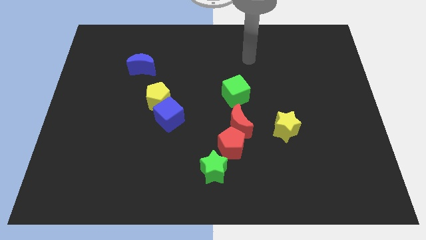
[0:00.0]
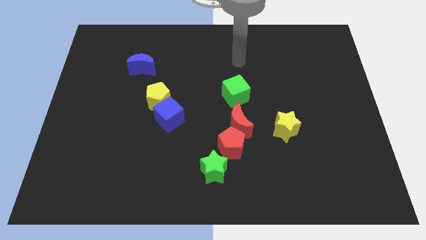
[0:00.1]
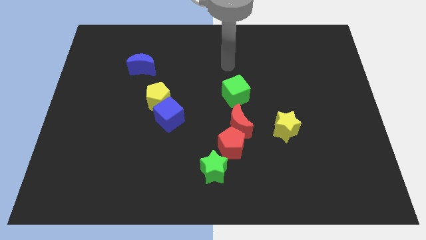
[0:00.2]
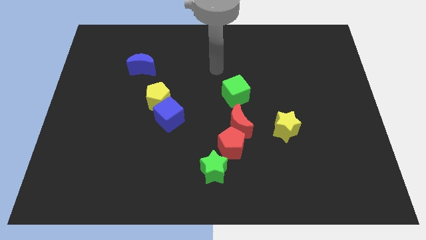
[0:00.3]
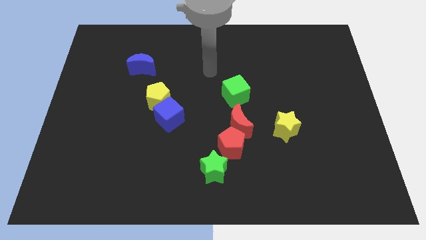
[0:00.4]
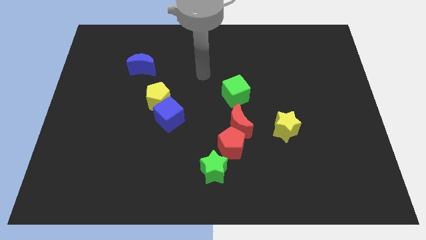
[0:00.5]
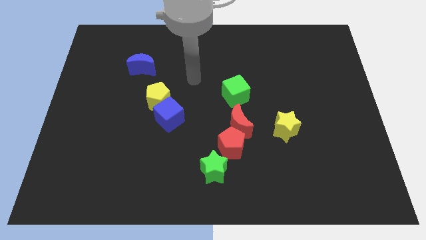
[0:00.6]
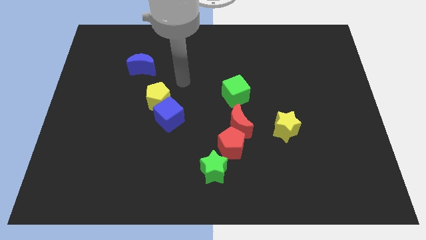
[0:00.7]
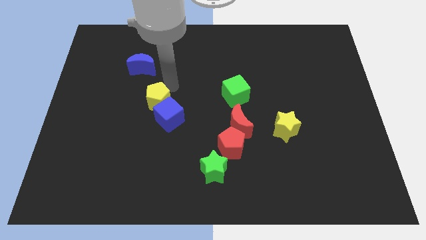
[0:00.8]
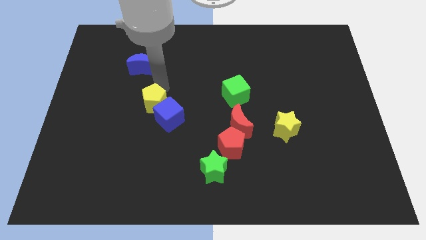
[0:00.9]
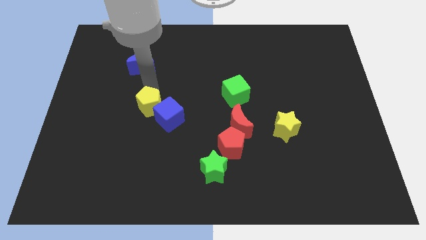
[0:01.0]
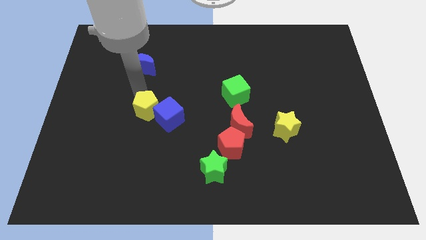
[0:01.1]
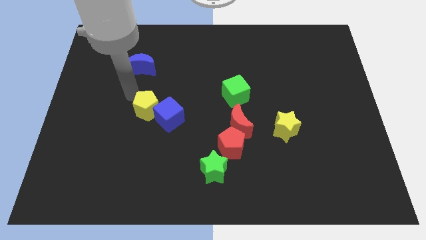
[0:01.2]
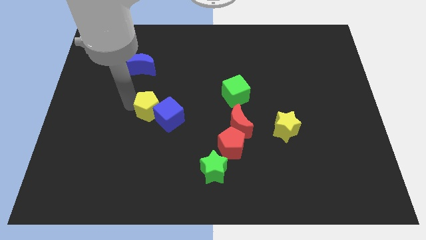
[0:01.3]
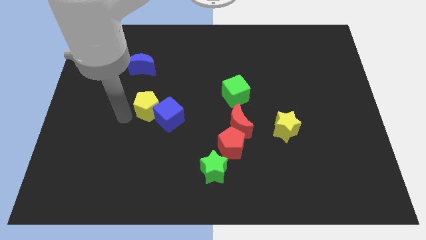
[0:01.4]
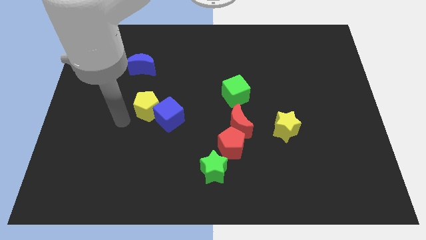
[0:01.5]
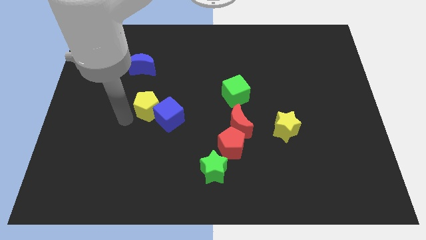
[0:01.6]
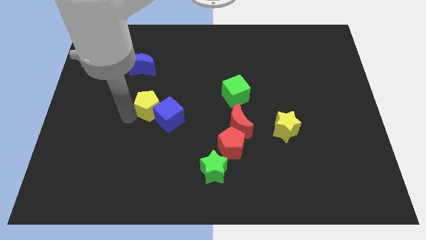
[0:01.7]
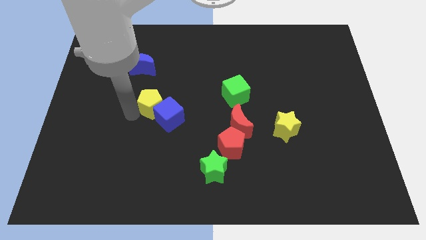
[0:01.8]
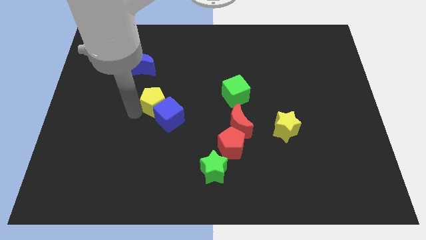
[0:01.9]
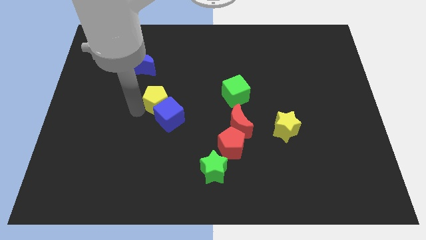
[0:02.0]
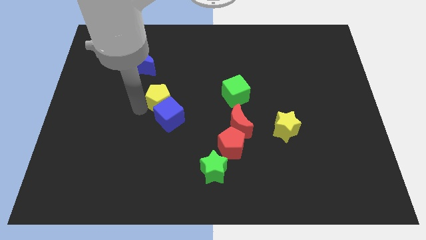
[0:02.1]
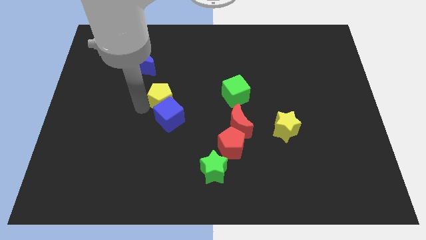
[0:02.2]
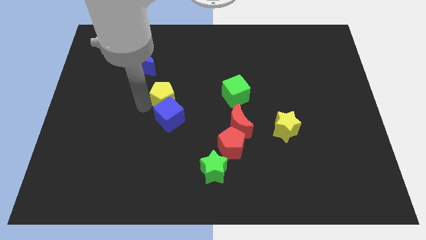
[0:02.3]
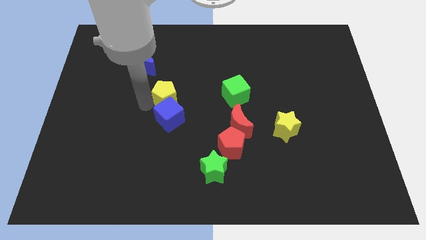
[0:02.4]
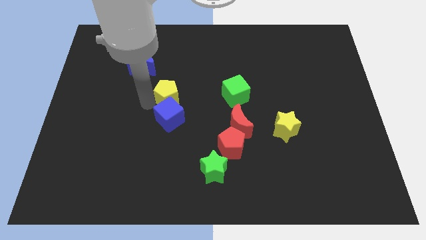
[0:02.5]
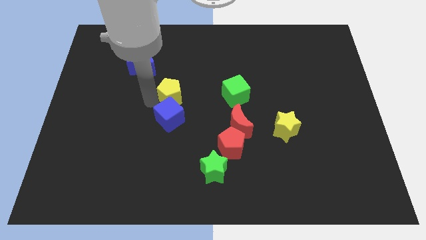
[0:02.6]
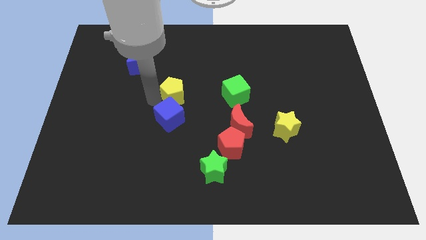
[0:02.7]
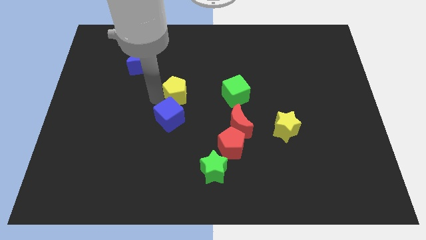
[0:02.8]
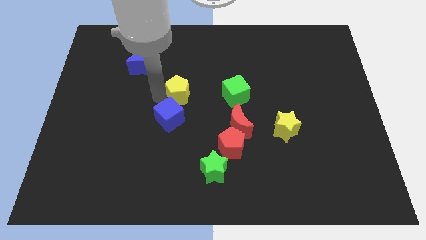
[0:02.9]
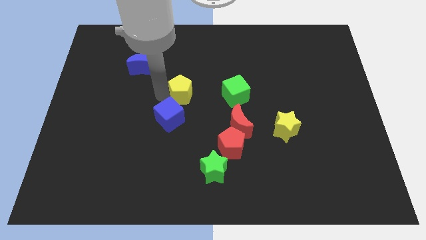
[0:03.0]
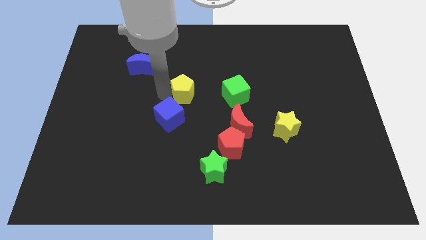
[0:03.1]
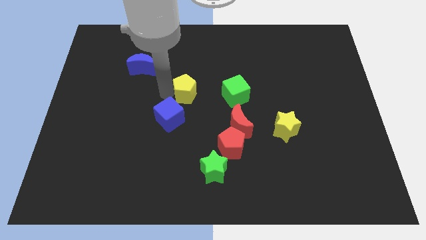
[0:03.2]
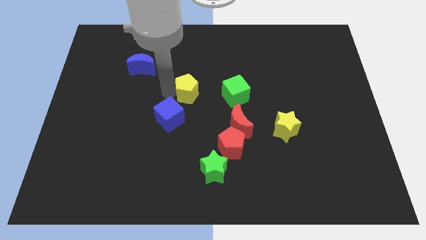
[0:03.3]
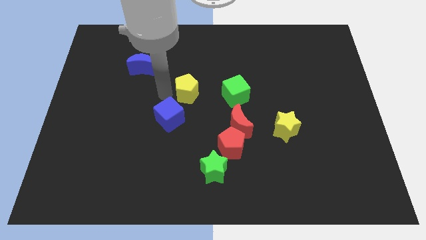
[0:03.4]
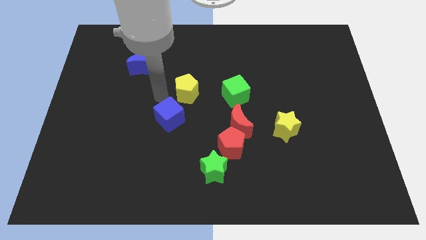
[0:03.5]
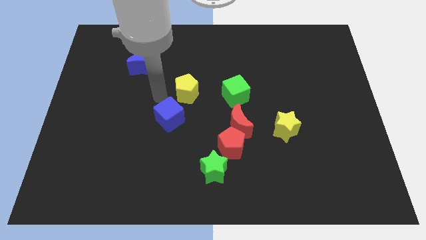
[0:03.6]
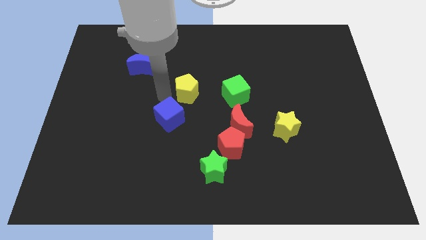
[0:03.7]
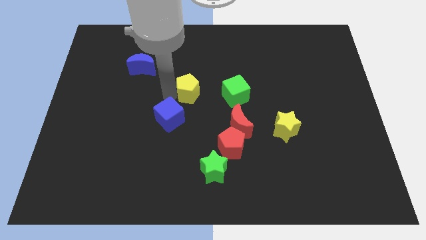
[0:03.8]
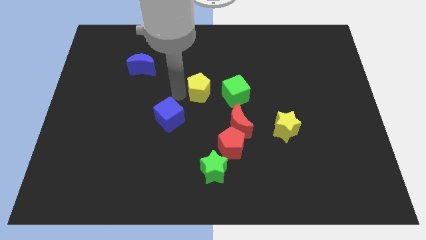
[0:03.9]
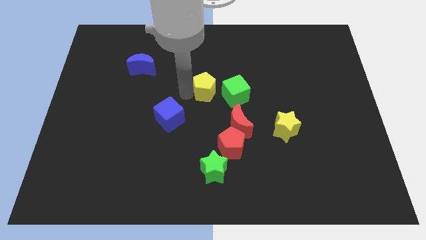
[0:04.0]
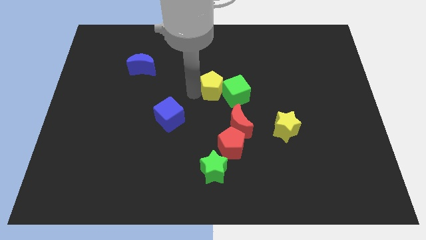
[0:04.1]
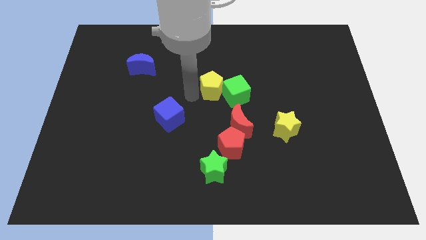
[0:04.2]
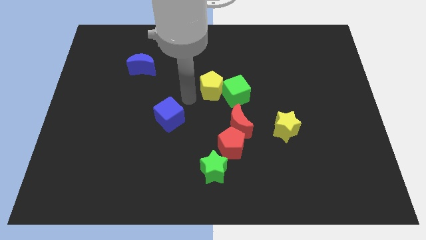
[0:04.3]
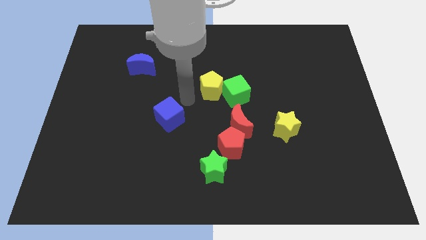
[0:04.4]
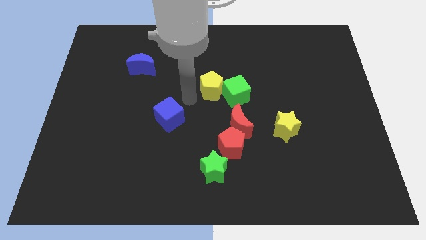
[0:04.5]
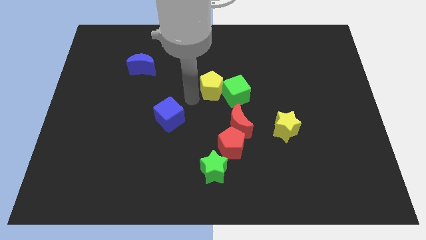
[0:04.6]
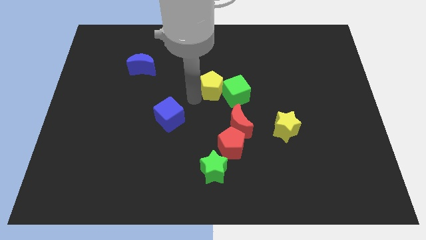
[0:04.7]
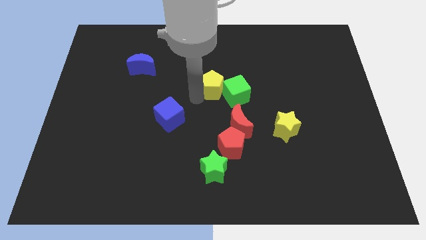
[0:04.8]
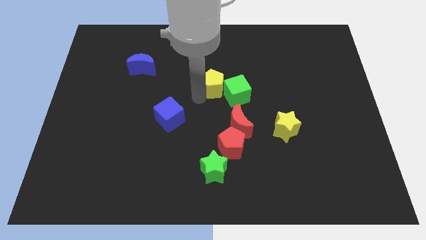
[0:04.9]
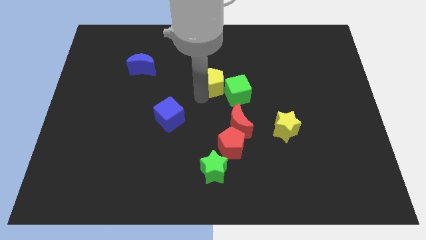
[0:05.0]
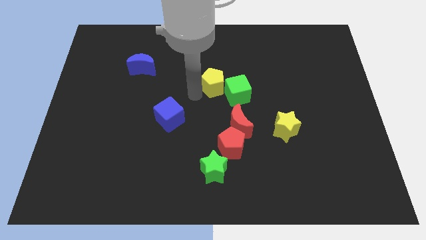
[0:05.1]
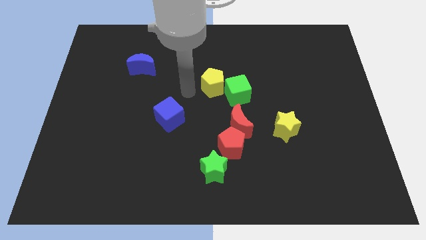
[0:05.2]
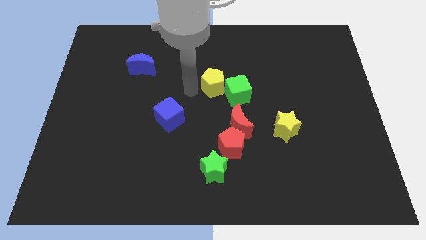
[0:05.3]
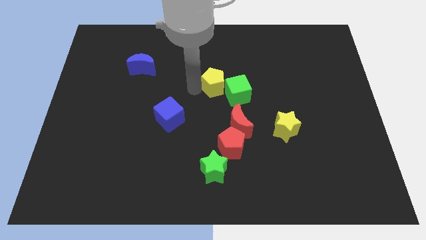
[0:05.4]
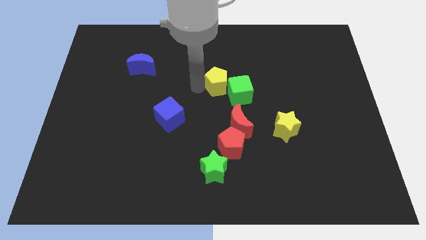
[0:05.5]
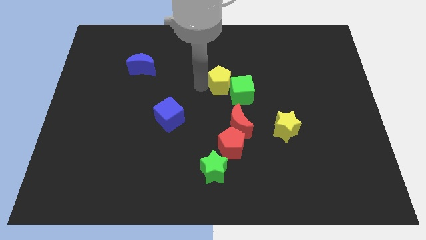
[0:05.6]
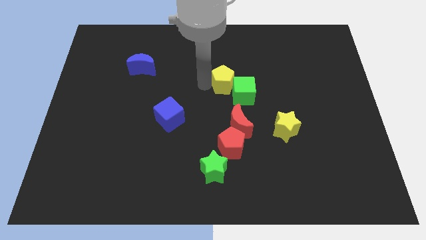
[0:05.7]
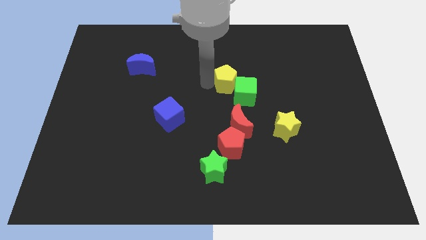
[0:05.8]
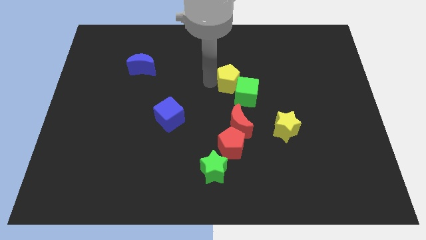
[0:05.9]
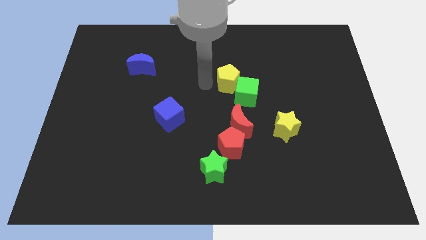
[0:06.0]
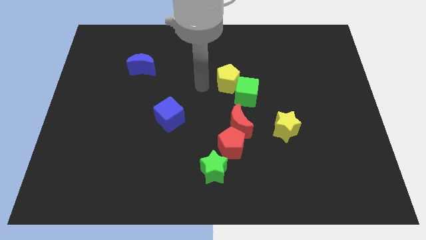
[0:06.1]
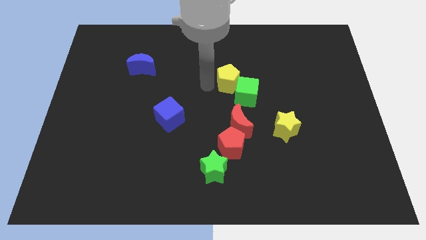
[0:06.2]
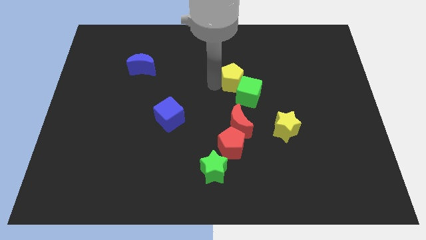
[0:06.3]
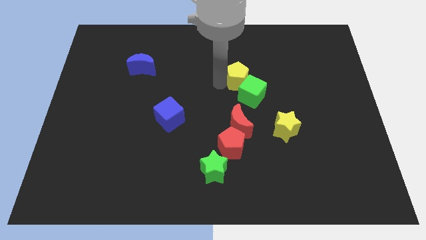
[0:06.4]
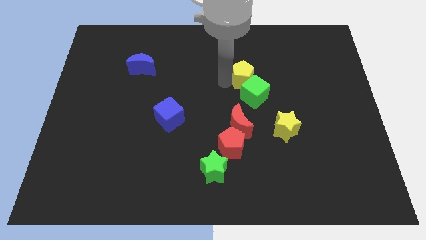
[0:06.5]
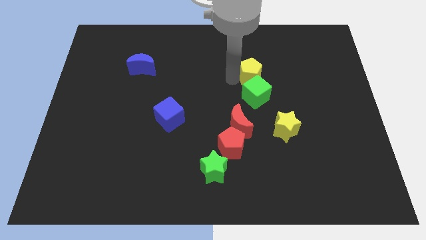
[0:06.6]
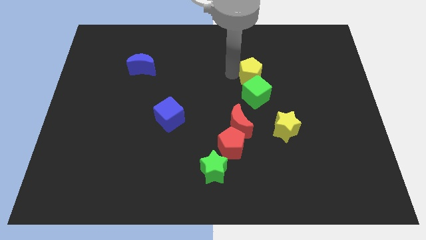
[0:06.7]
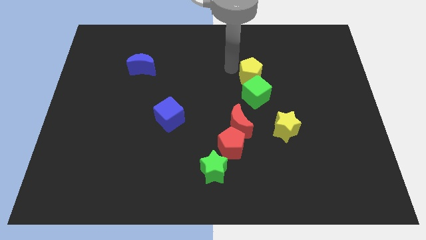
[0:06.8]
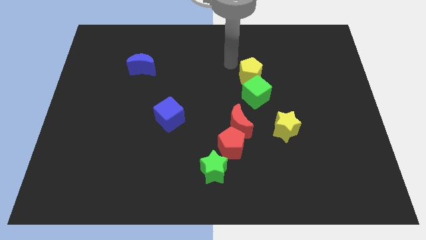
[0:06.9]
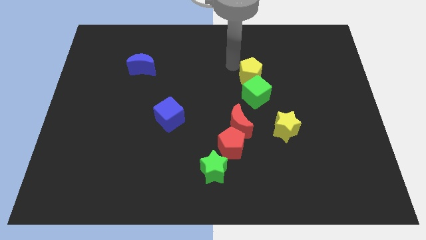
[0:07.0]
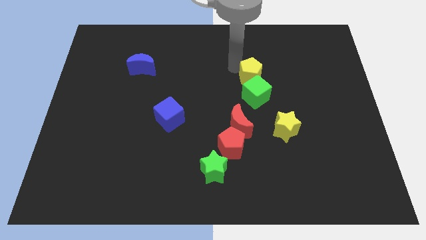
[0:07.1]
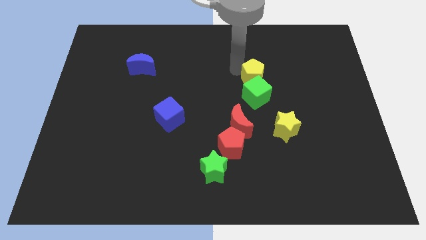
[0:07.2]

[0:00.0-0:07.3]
slide the yellow pentagon to the right

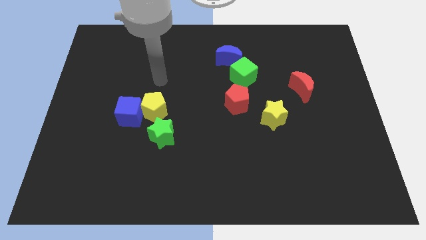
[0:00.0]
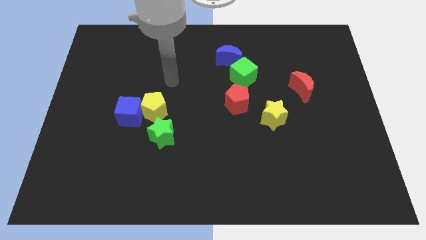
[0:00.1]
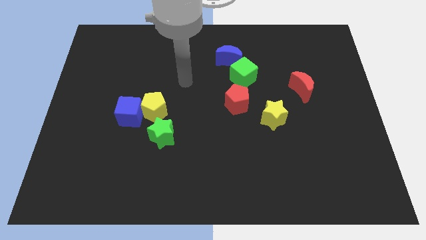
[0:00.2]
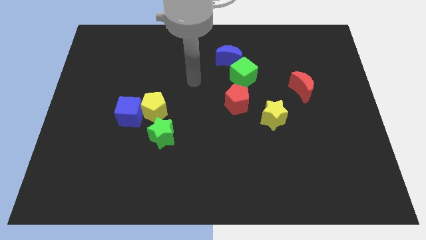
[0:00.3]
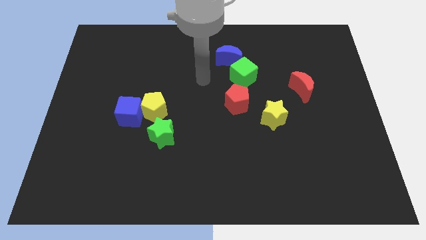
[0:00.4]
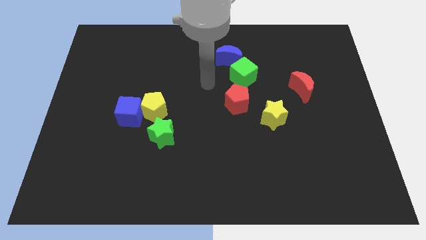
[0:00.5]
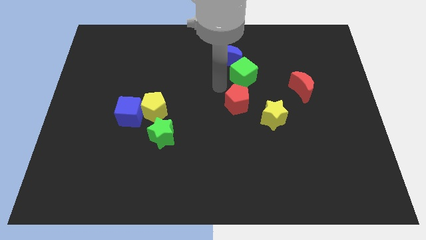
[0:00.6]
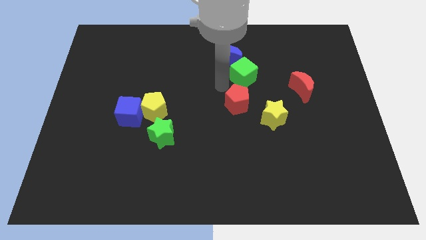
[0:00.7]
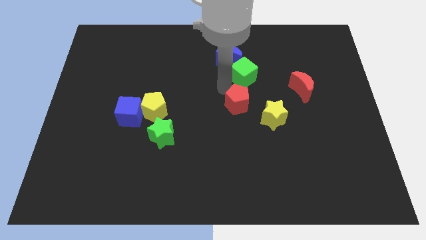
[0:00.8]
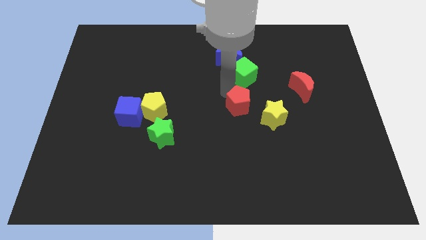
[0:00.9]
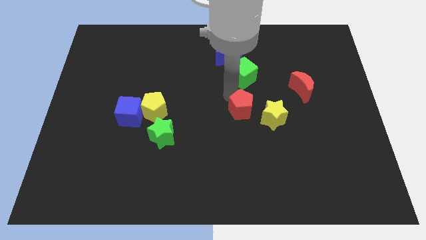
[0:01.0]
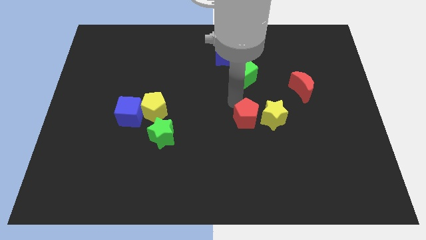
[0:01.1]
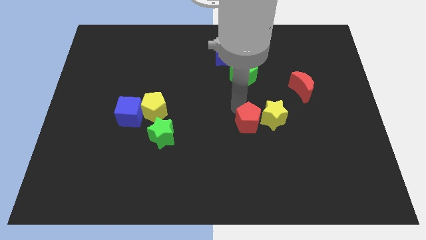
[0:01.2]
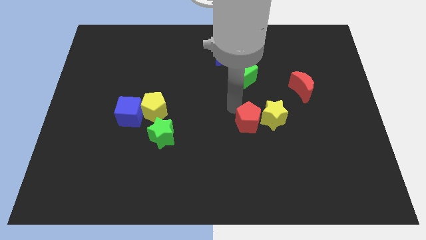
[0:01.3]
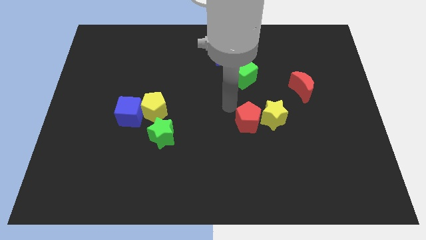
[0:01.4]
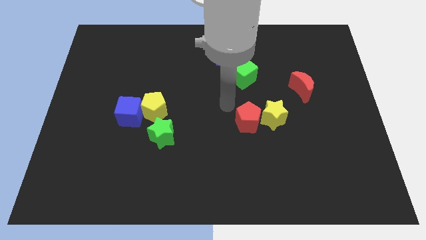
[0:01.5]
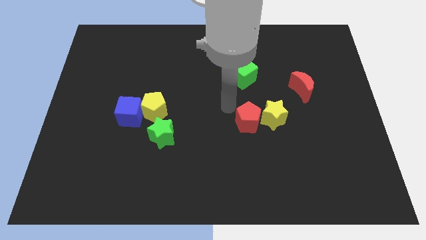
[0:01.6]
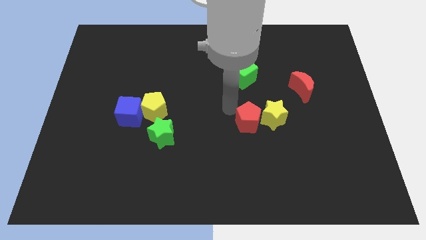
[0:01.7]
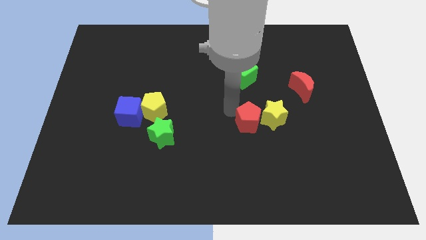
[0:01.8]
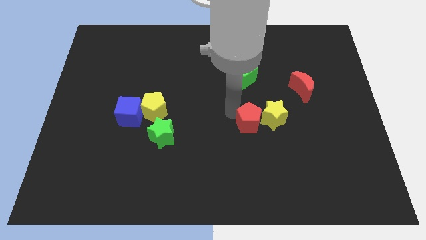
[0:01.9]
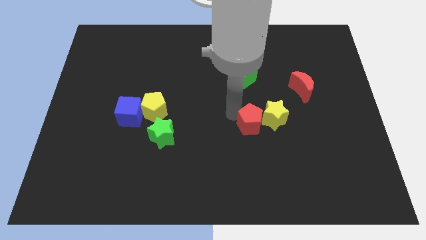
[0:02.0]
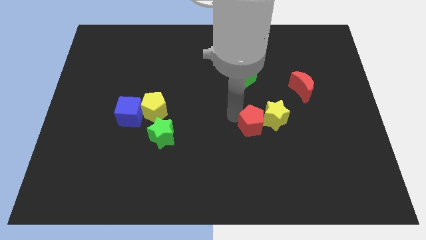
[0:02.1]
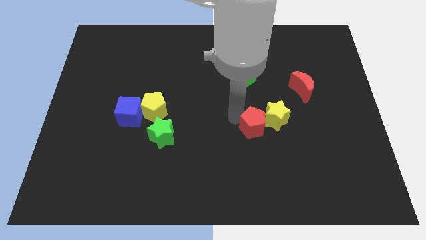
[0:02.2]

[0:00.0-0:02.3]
slightly move the red pentagon down and to the right diagonally
